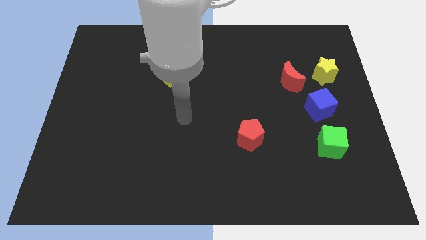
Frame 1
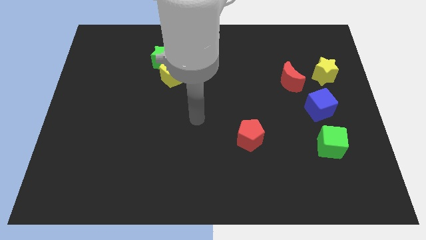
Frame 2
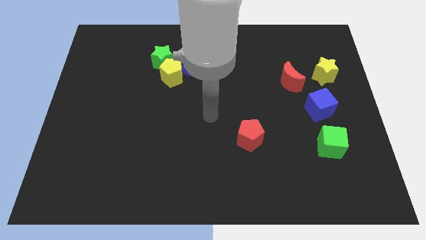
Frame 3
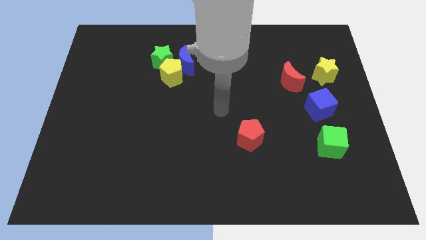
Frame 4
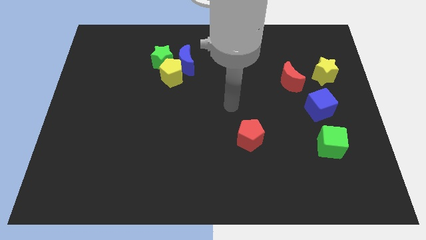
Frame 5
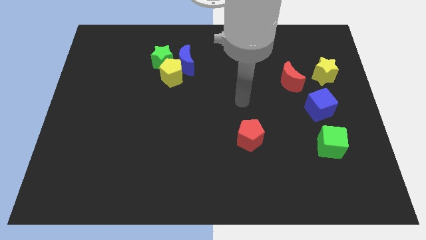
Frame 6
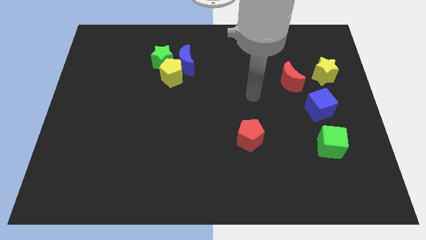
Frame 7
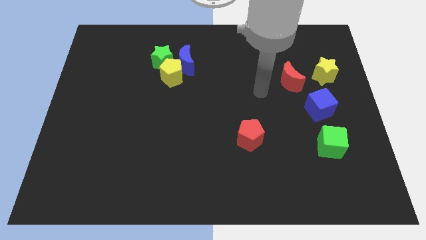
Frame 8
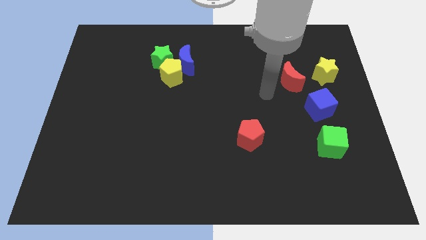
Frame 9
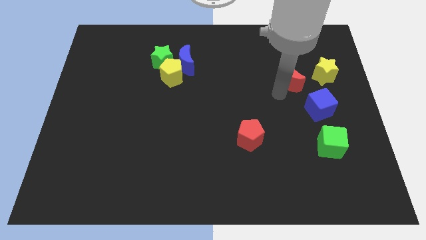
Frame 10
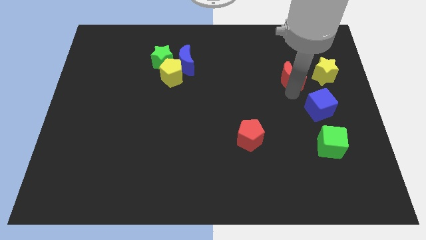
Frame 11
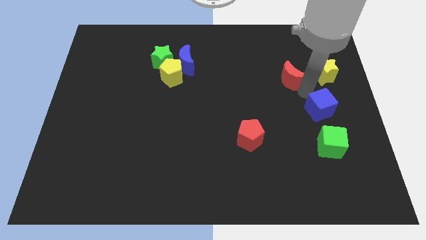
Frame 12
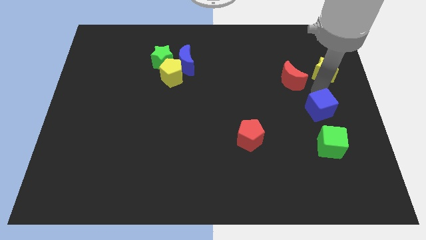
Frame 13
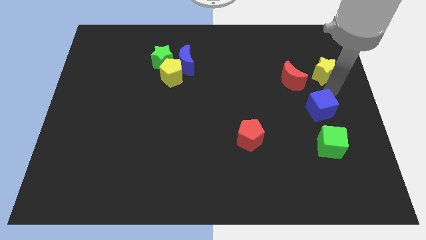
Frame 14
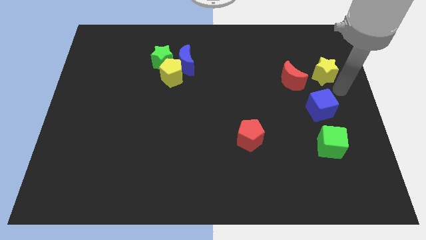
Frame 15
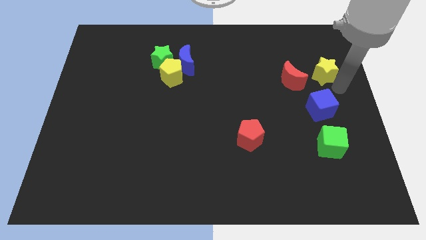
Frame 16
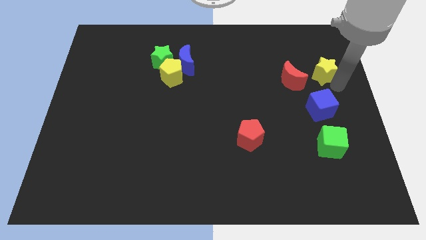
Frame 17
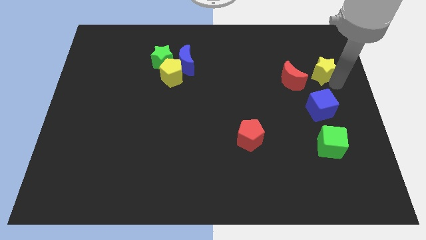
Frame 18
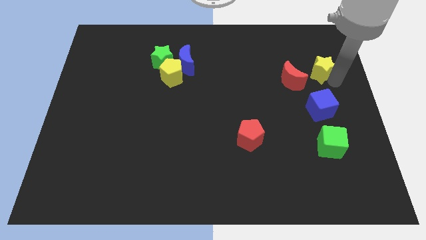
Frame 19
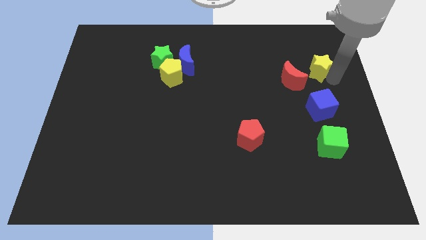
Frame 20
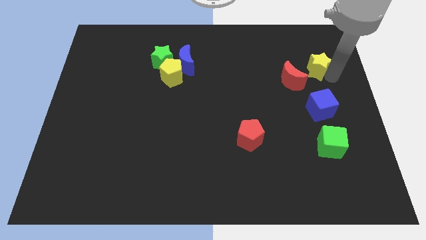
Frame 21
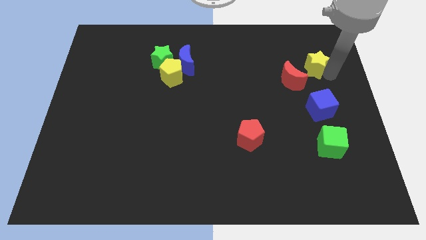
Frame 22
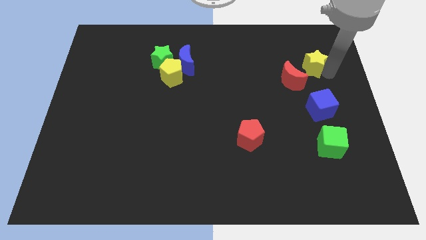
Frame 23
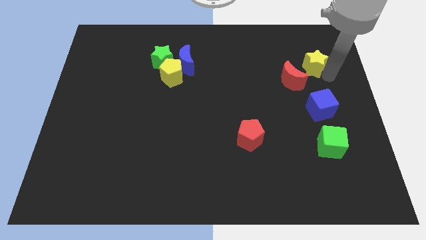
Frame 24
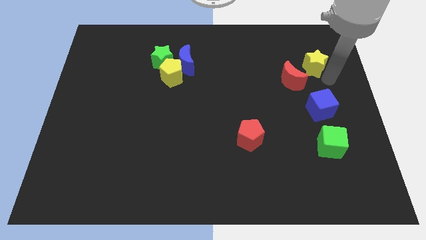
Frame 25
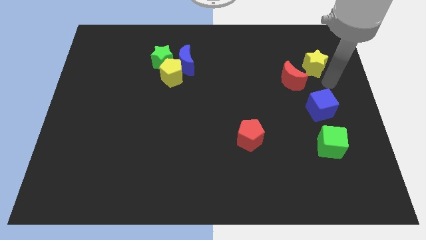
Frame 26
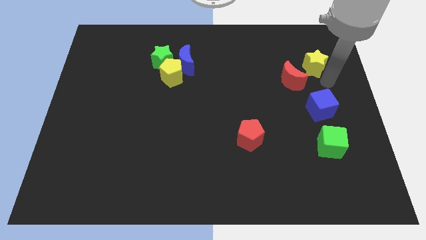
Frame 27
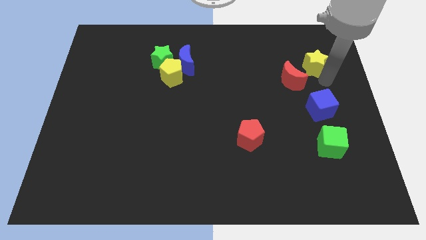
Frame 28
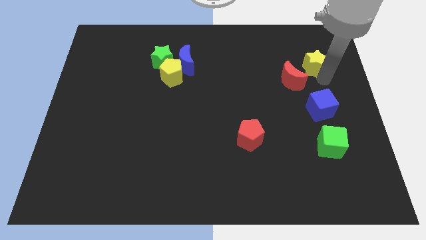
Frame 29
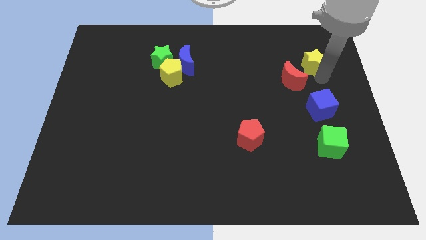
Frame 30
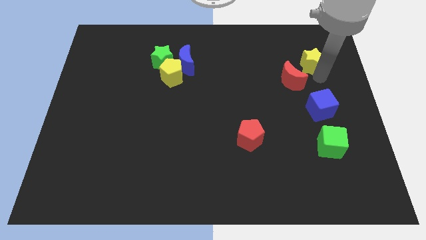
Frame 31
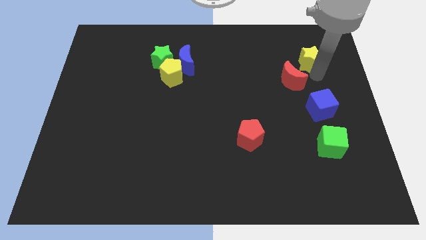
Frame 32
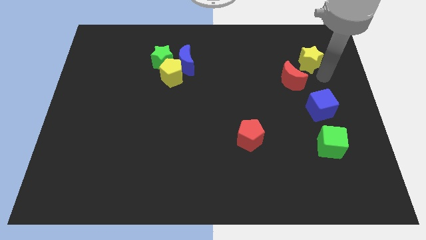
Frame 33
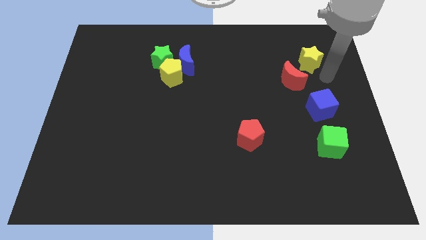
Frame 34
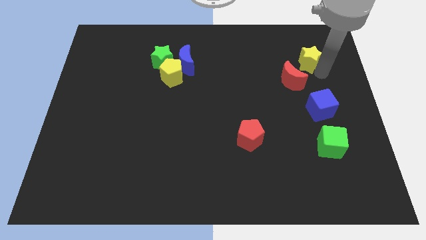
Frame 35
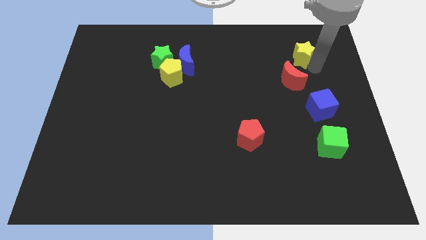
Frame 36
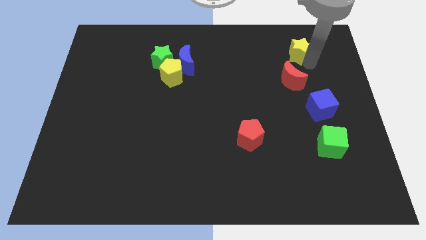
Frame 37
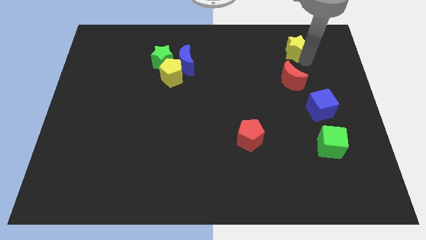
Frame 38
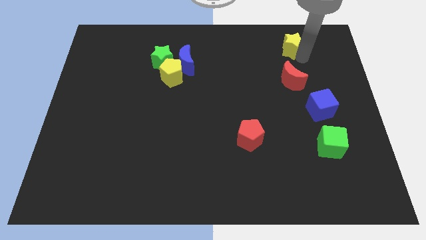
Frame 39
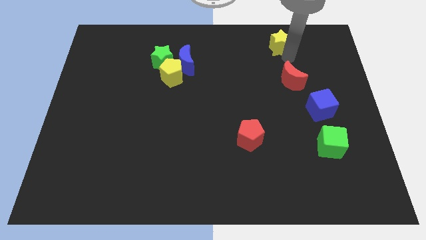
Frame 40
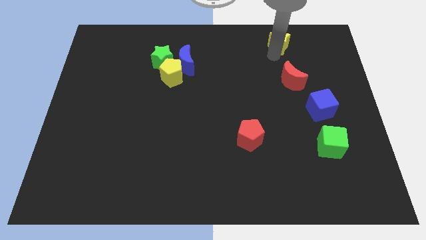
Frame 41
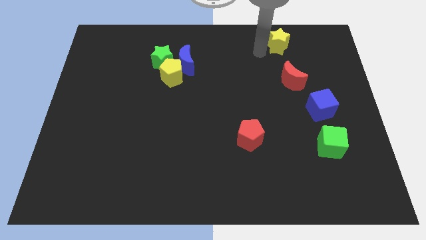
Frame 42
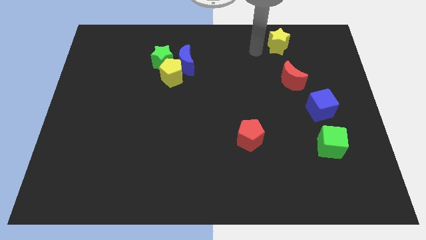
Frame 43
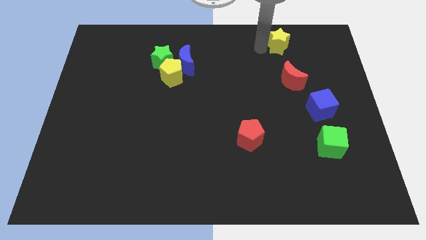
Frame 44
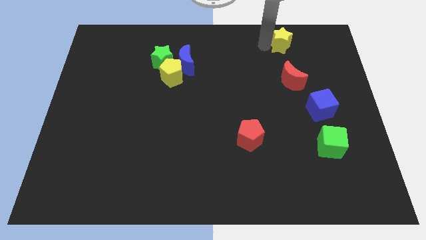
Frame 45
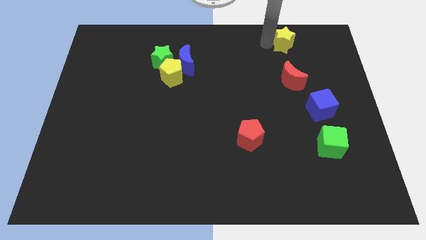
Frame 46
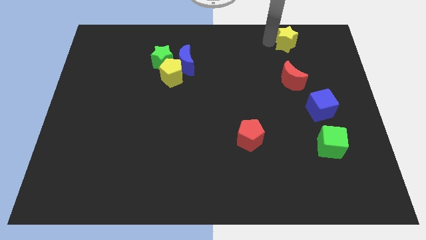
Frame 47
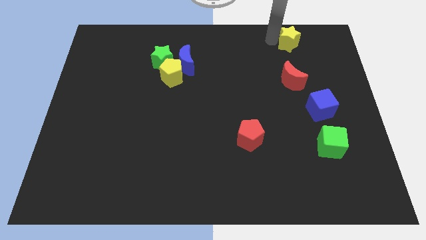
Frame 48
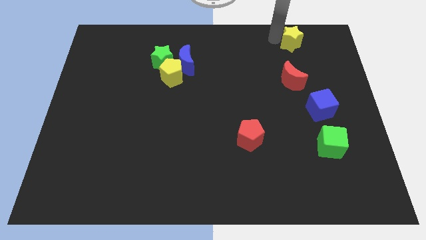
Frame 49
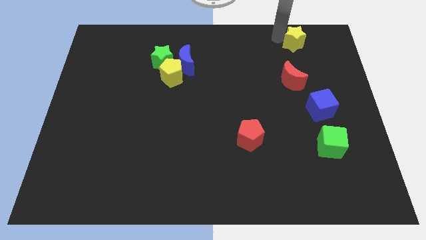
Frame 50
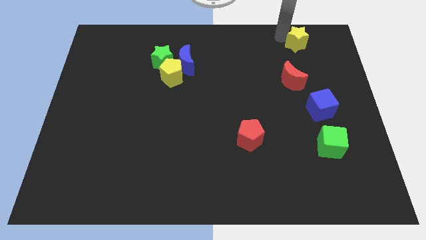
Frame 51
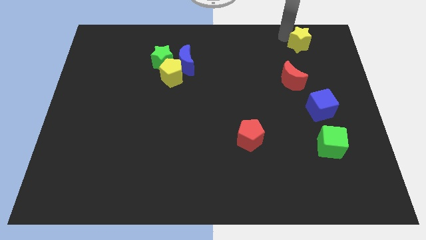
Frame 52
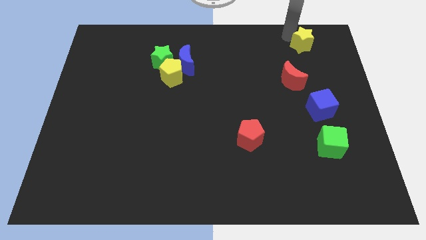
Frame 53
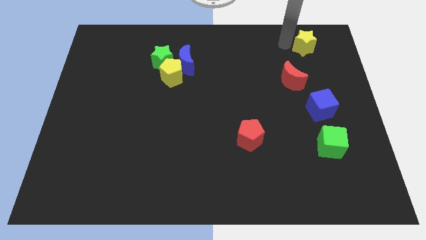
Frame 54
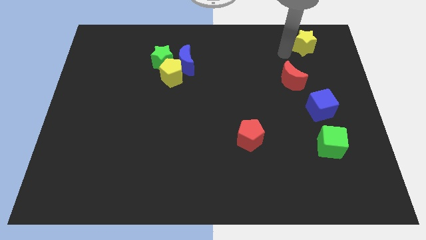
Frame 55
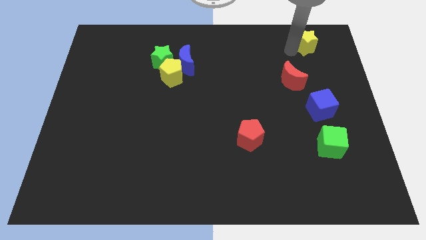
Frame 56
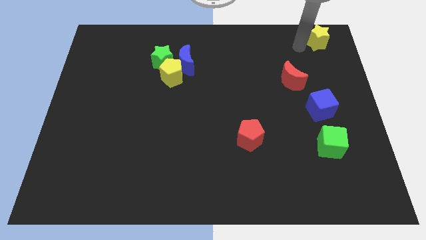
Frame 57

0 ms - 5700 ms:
push the yellow star to the top right

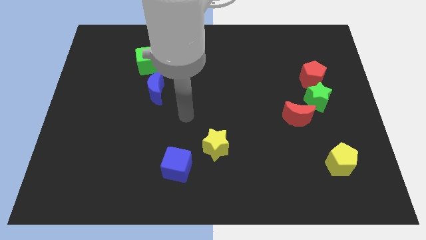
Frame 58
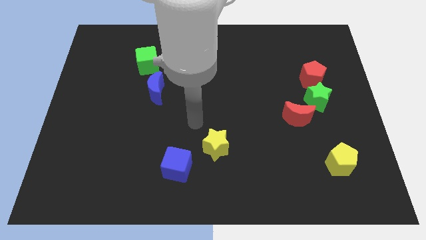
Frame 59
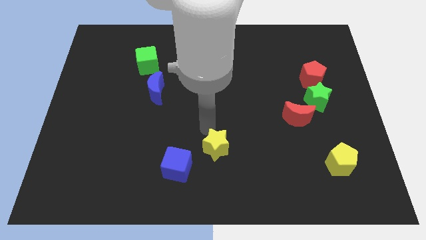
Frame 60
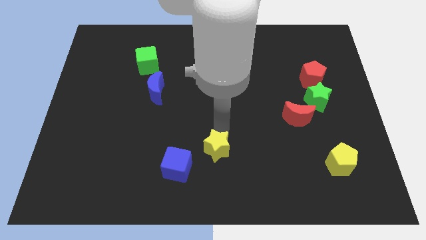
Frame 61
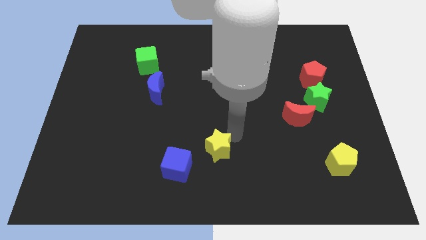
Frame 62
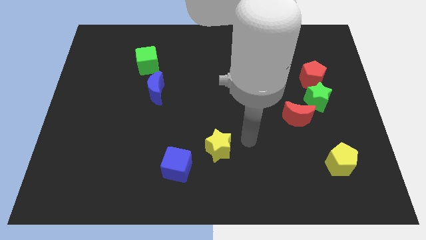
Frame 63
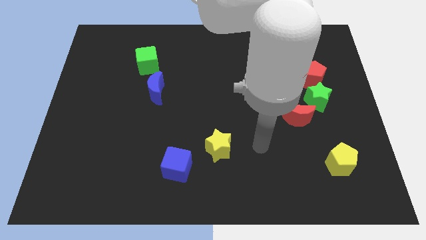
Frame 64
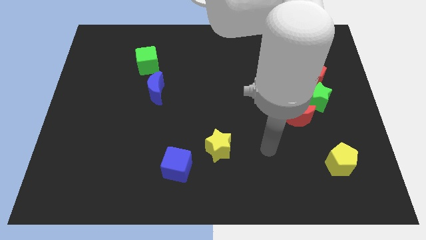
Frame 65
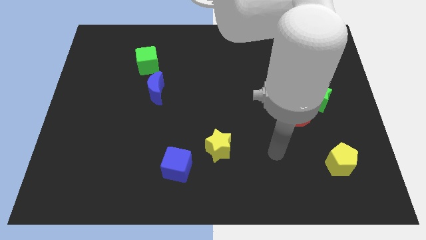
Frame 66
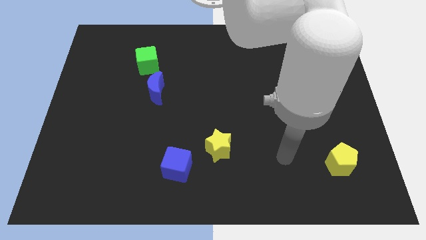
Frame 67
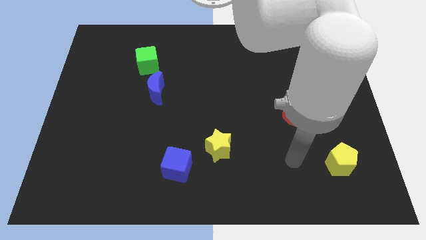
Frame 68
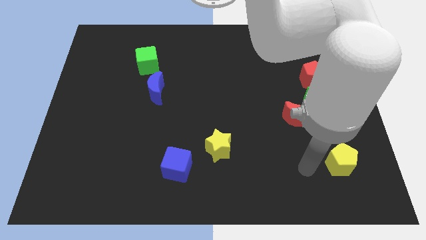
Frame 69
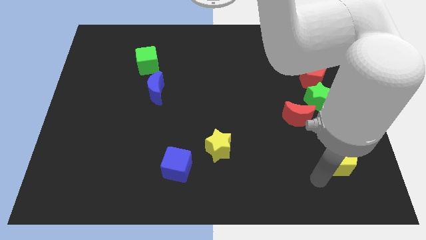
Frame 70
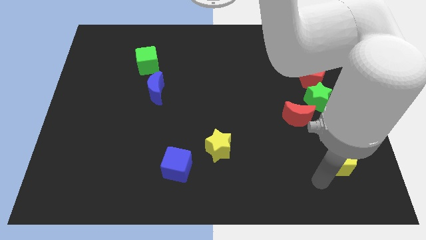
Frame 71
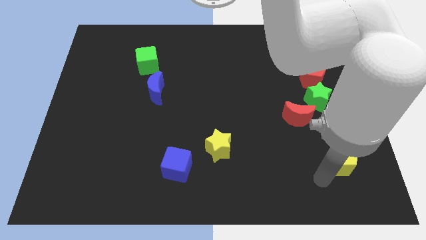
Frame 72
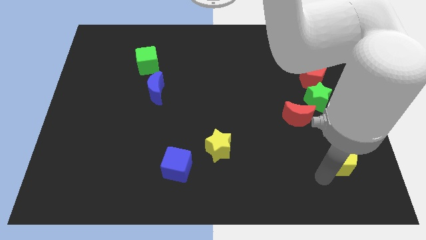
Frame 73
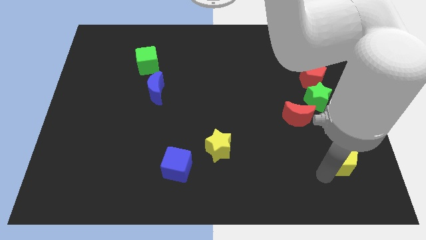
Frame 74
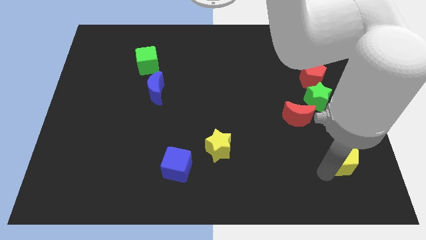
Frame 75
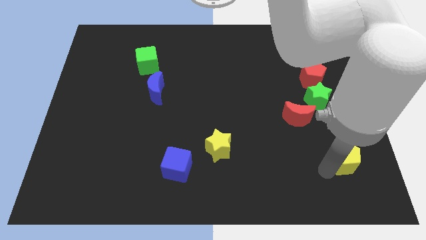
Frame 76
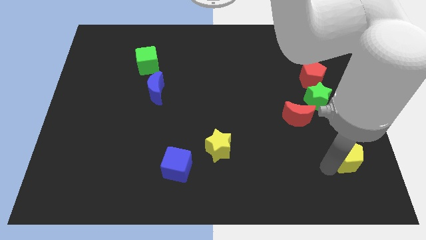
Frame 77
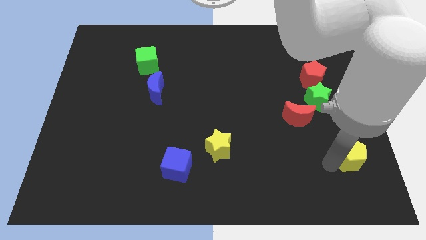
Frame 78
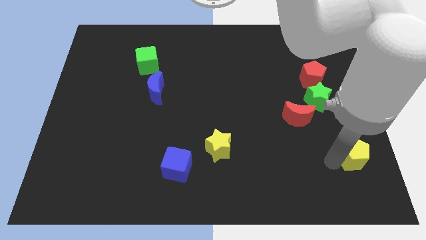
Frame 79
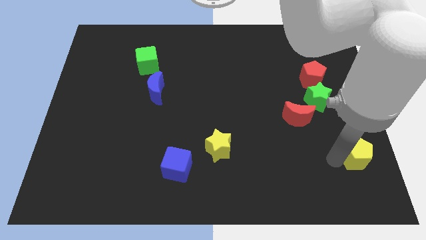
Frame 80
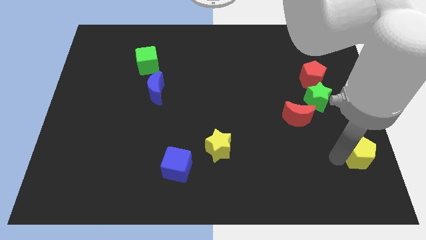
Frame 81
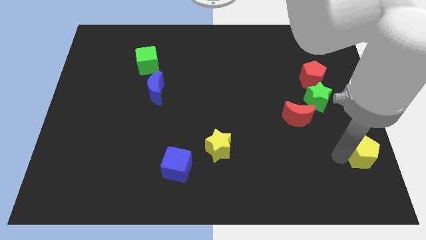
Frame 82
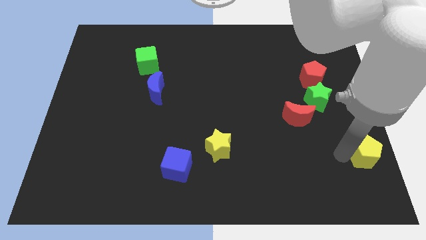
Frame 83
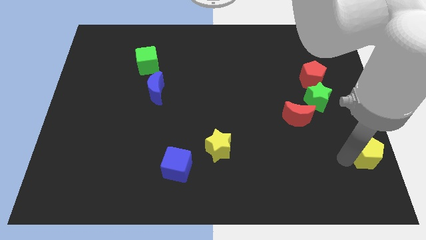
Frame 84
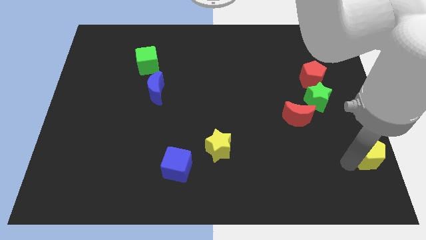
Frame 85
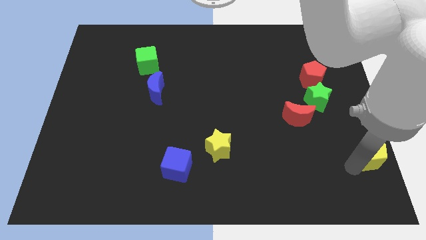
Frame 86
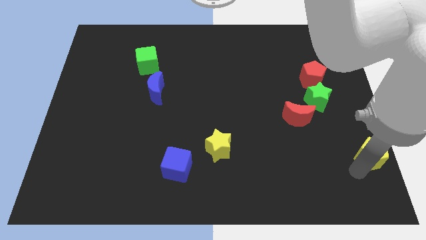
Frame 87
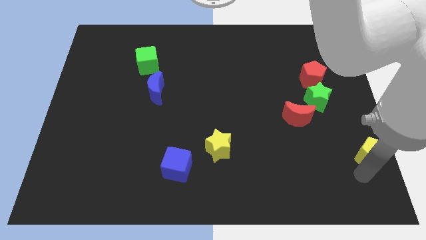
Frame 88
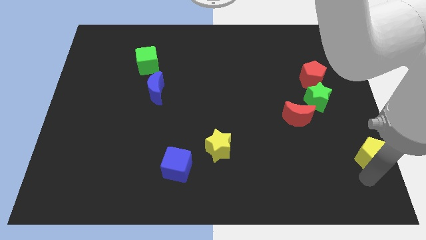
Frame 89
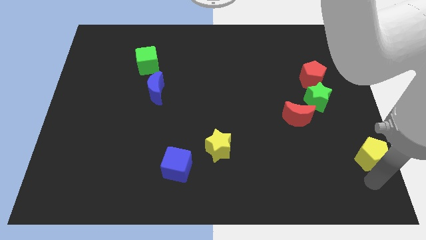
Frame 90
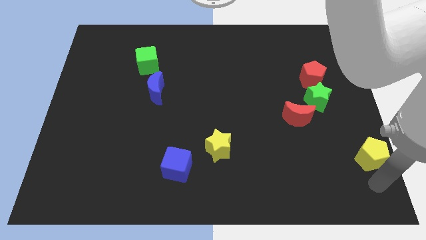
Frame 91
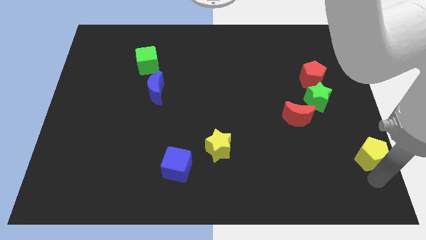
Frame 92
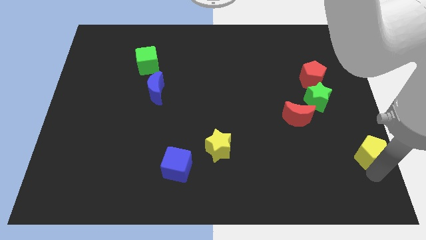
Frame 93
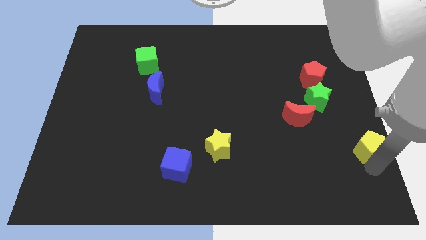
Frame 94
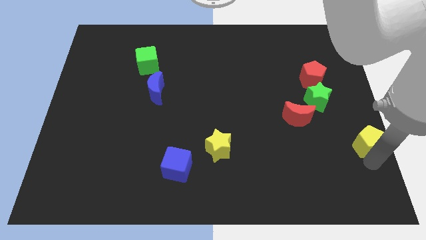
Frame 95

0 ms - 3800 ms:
slide the yellow pentagon to the right side
